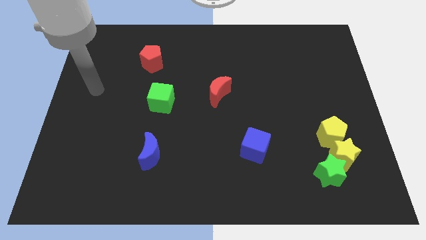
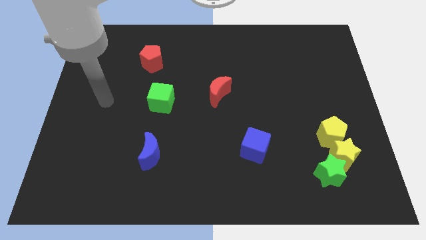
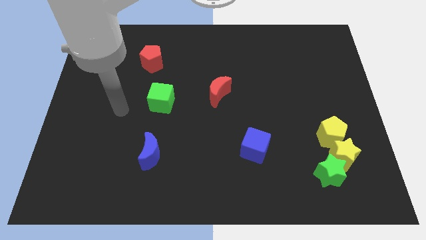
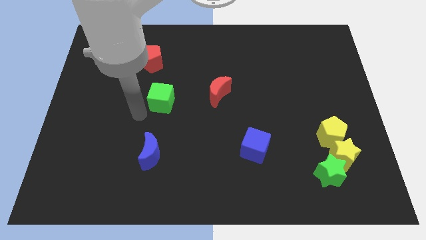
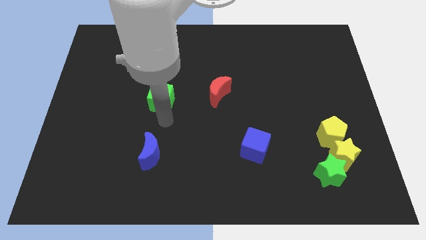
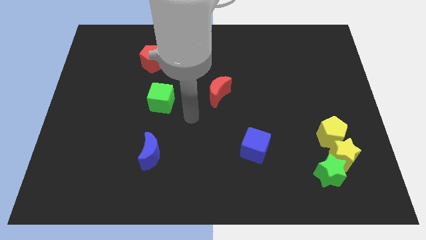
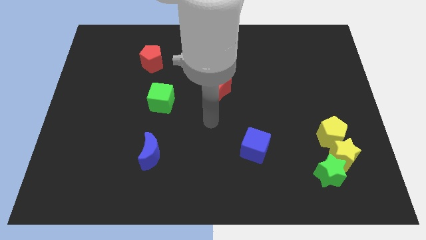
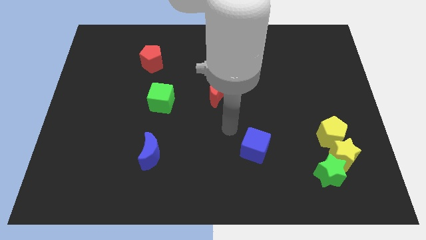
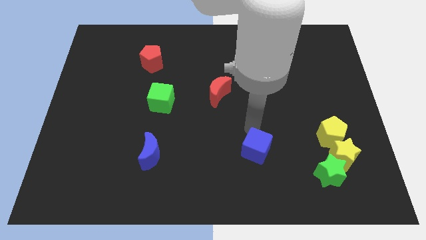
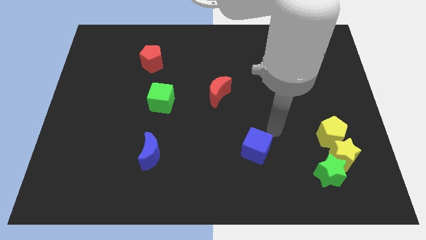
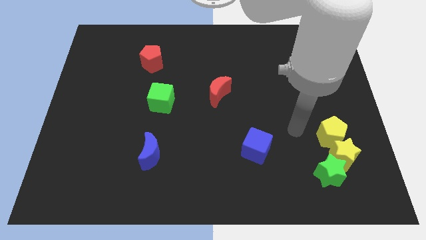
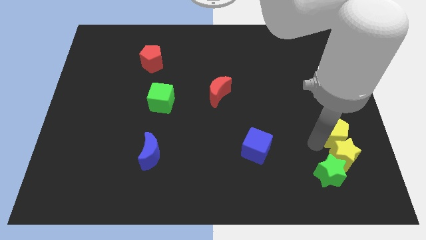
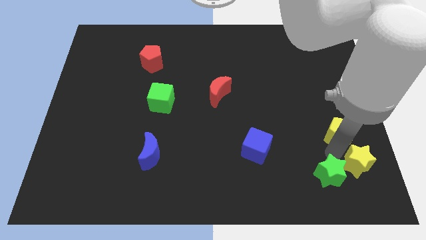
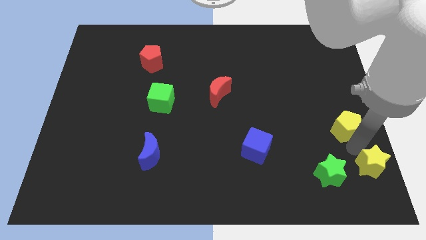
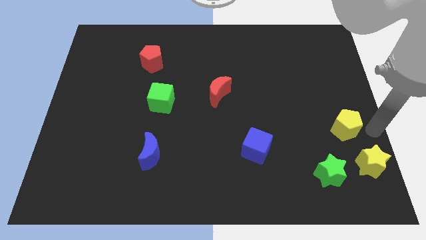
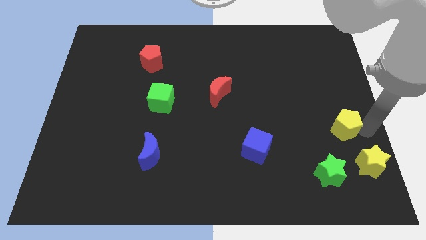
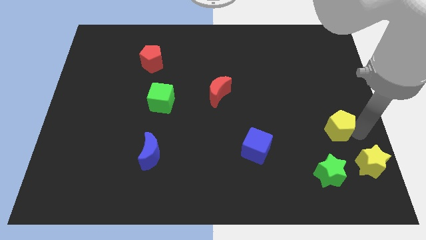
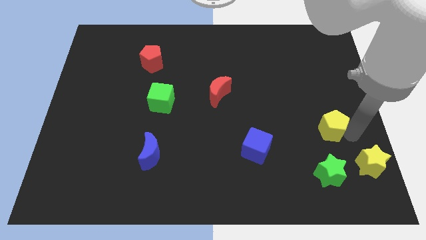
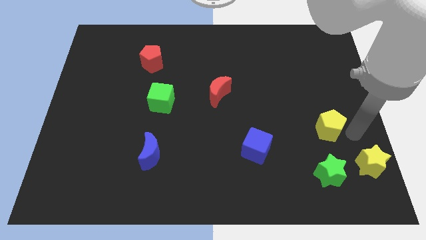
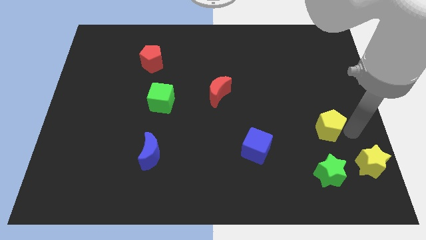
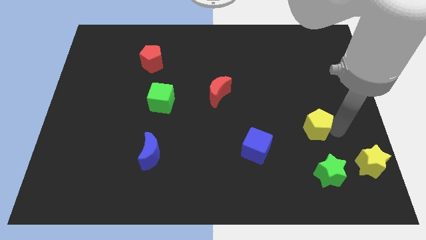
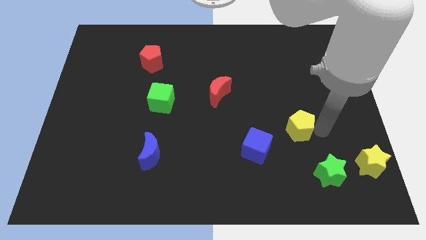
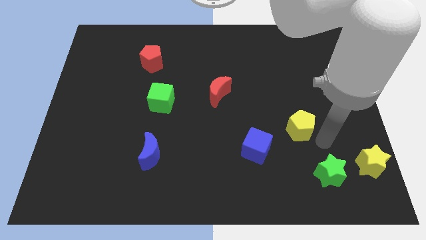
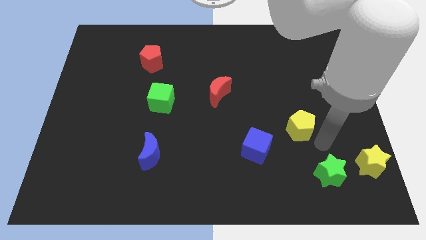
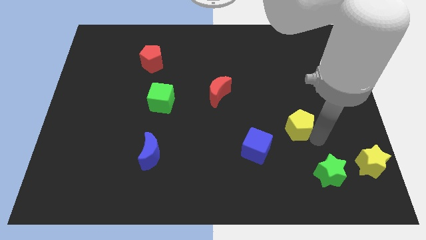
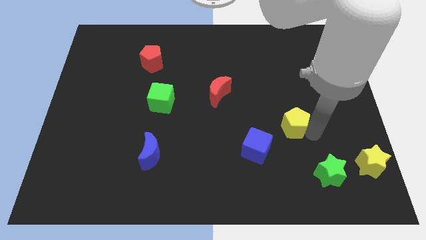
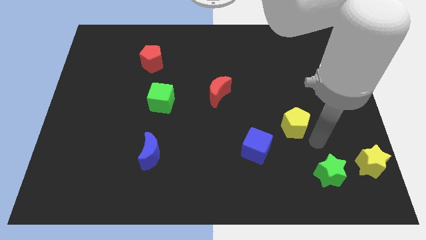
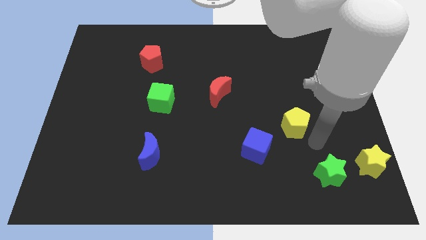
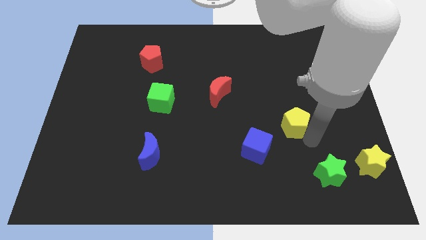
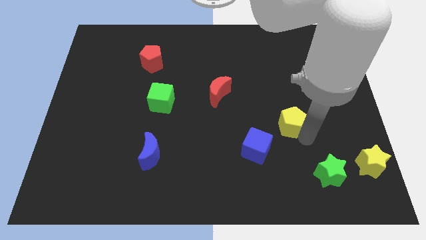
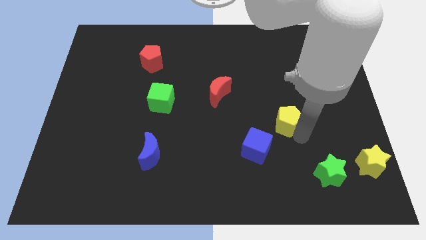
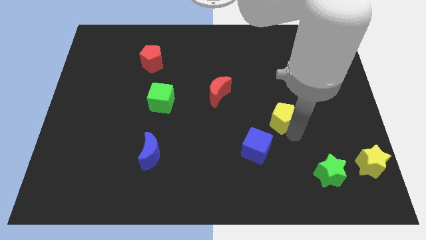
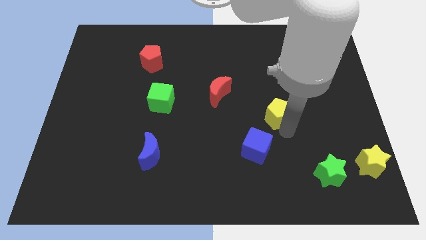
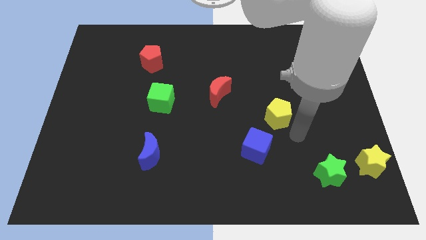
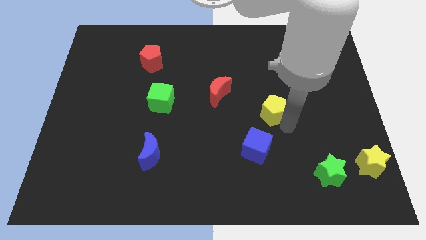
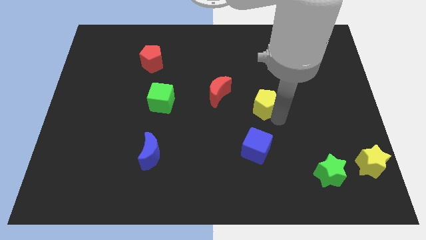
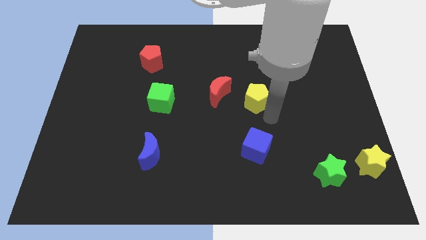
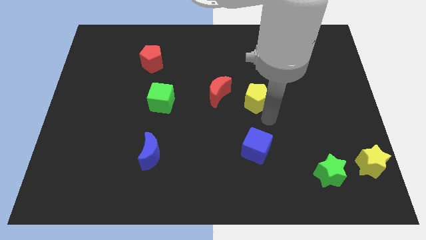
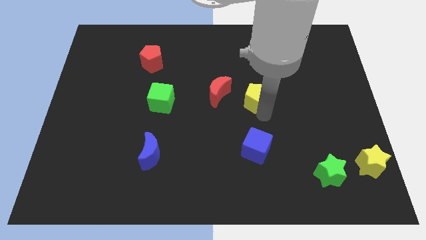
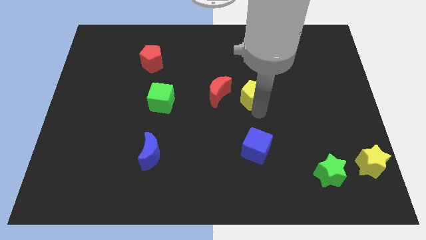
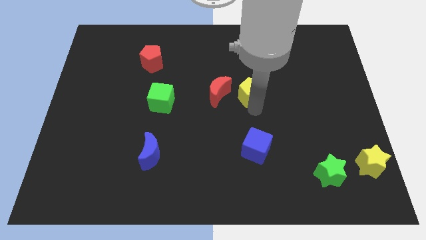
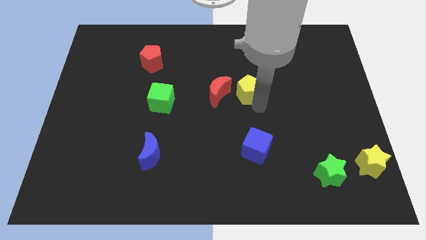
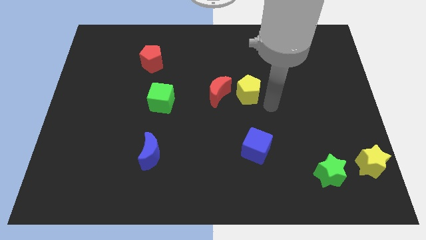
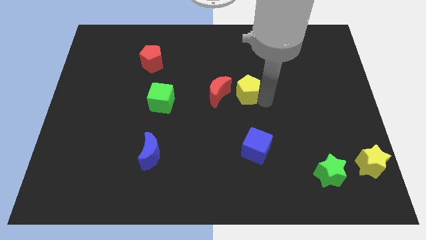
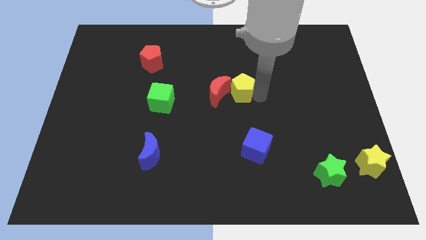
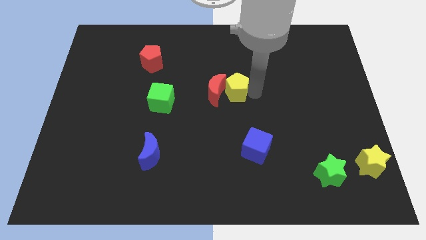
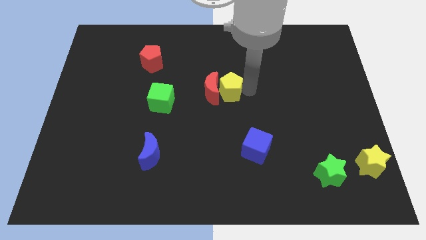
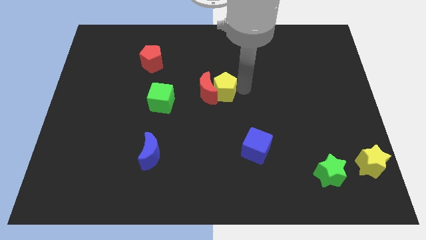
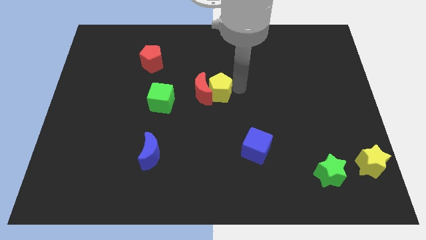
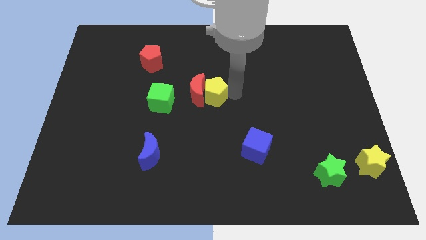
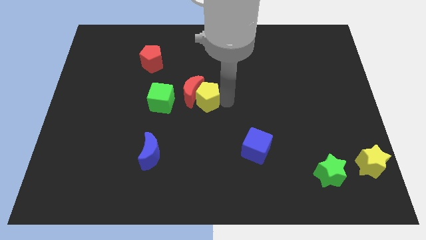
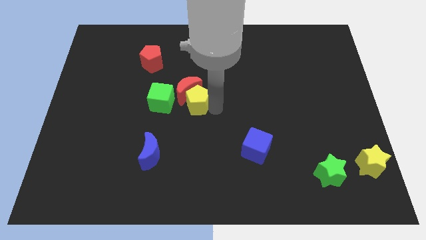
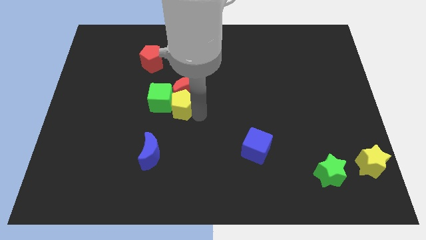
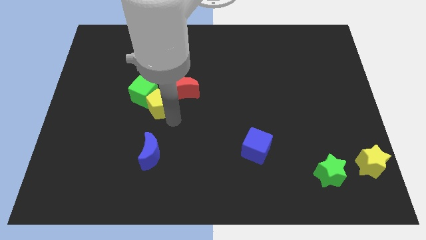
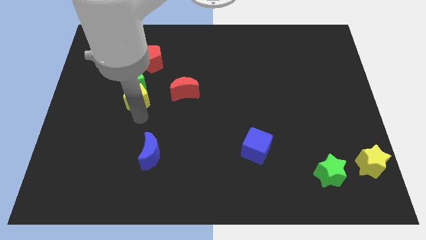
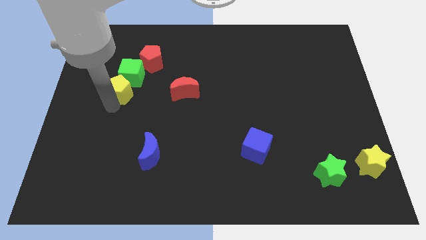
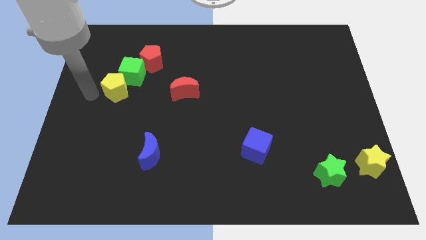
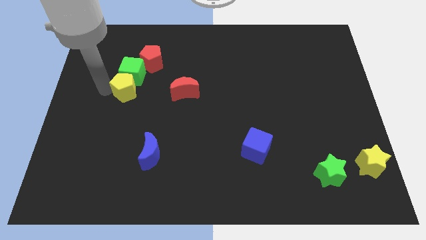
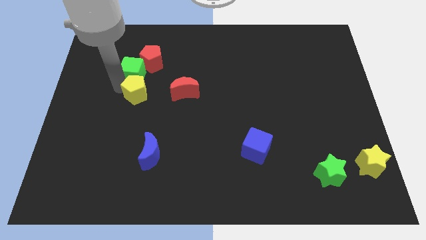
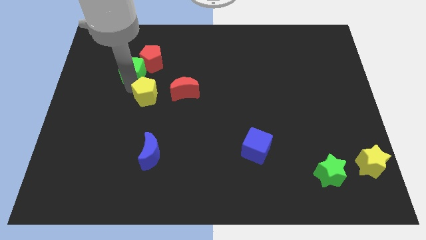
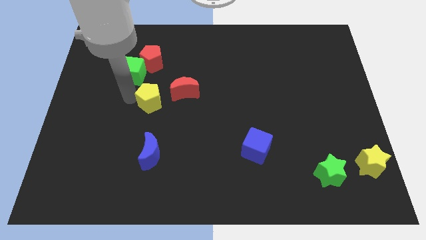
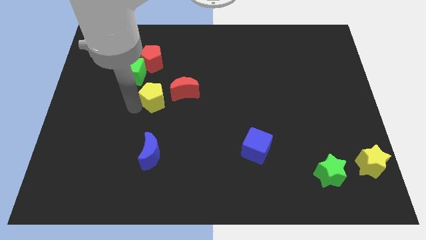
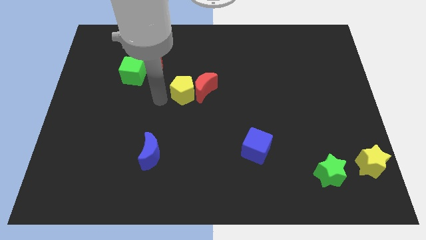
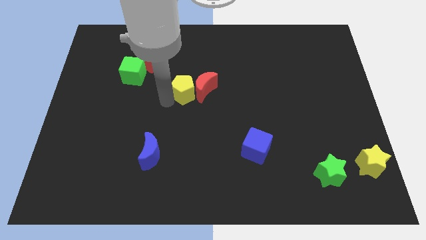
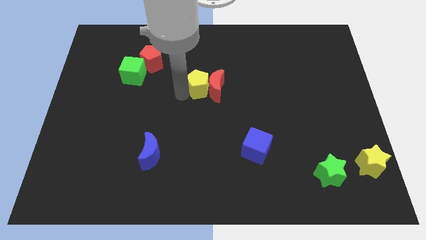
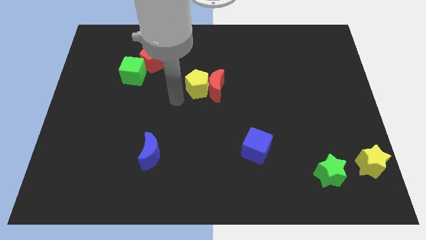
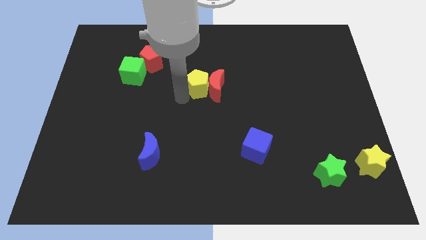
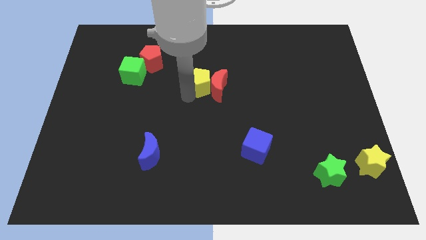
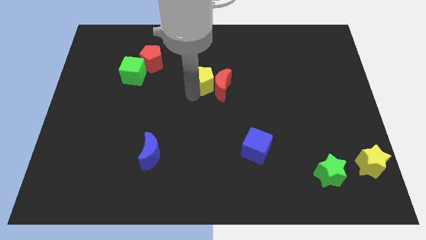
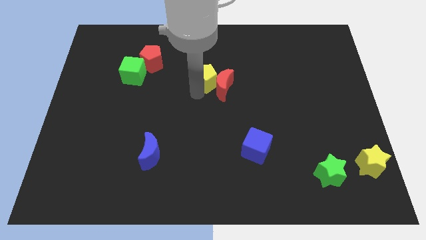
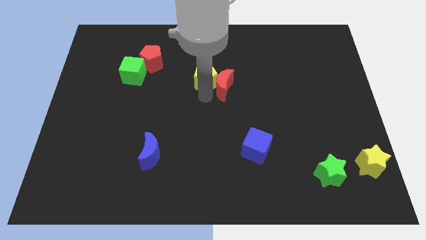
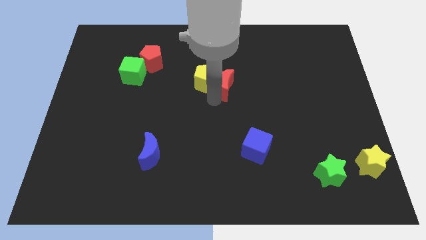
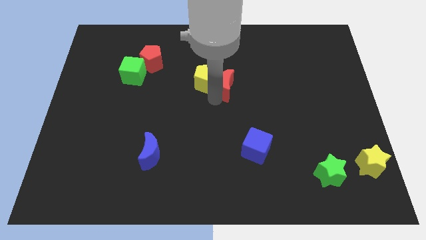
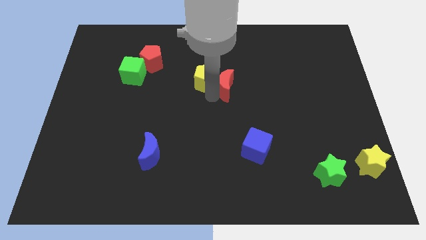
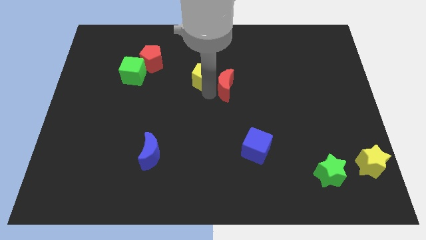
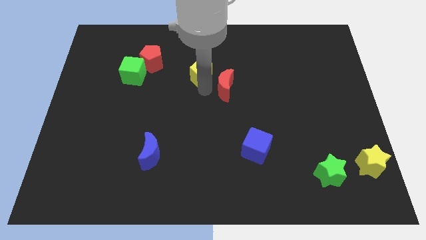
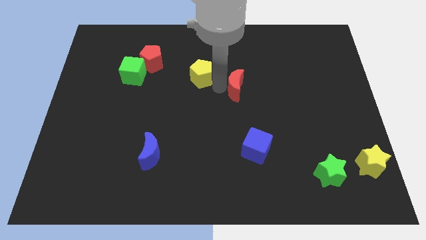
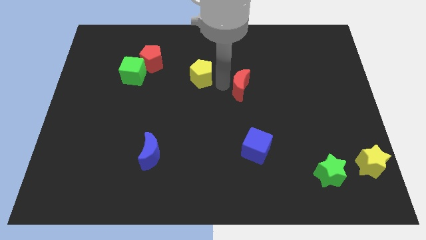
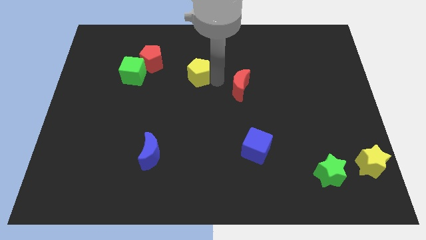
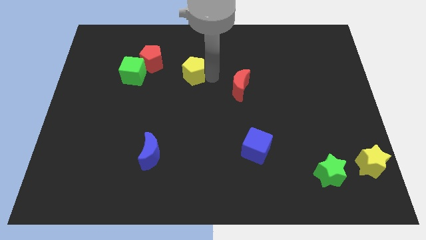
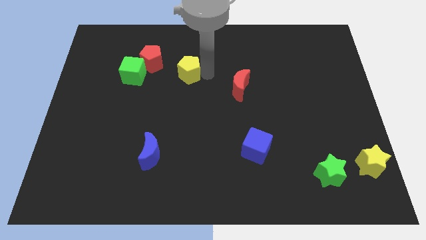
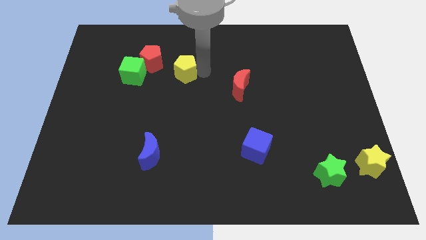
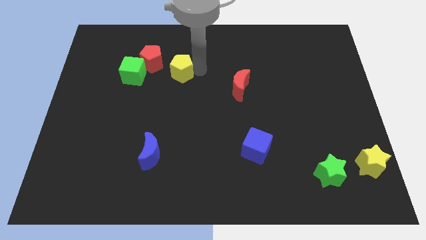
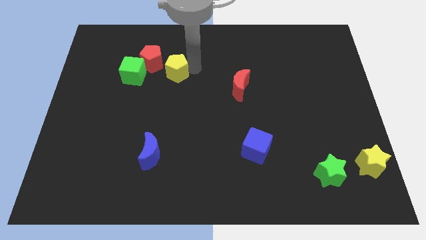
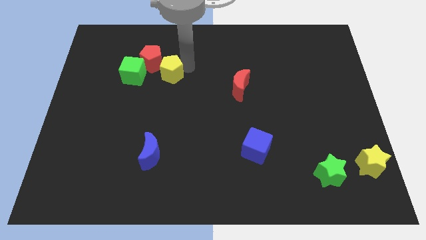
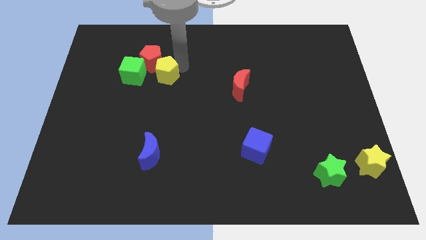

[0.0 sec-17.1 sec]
slide the yellow pentagon to the red pentagon
